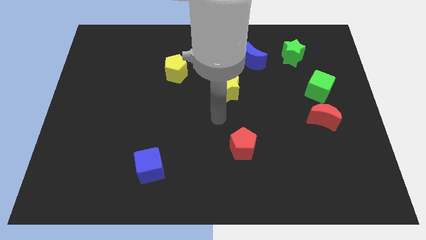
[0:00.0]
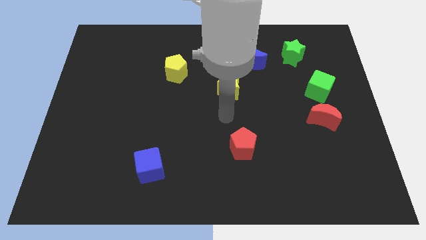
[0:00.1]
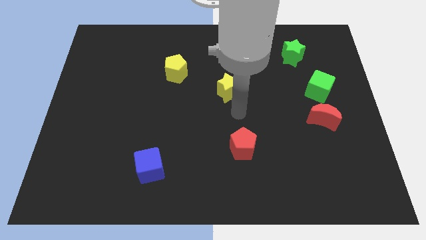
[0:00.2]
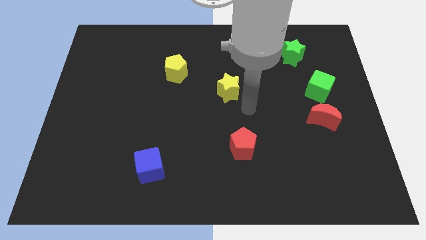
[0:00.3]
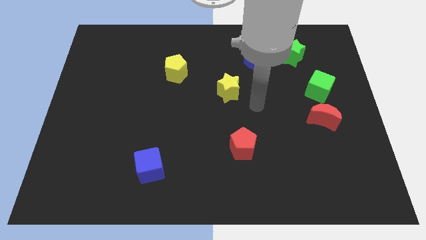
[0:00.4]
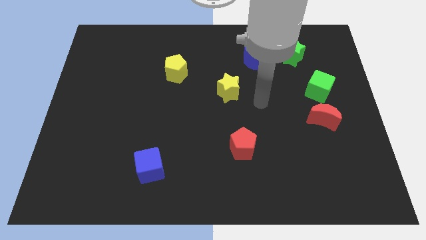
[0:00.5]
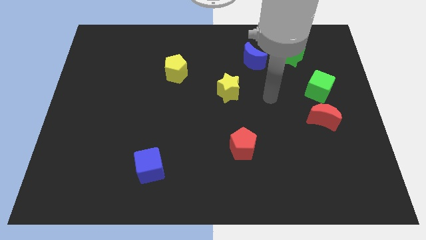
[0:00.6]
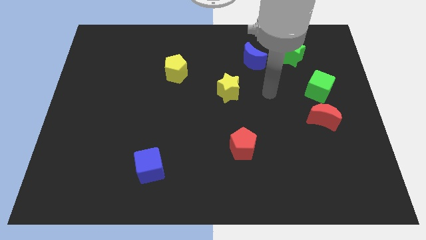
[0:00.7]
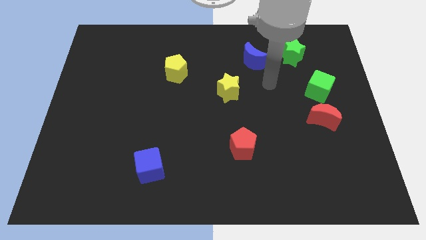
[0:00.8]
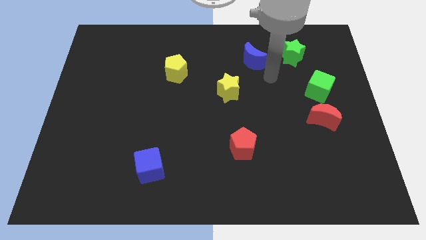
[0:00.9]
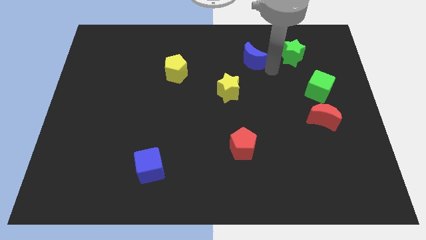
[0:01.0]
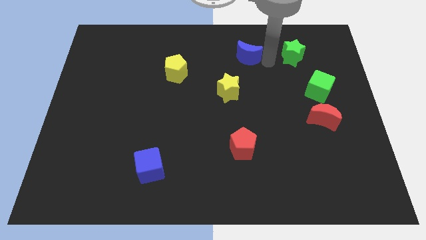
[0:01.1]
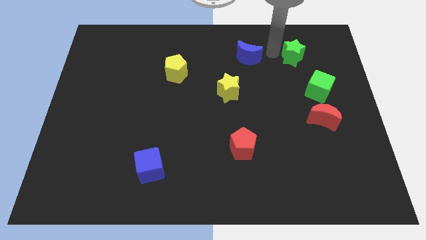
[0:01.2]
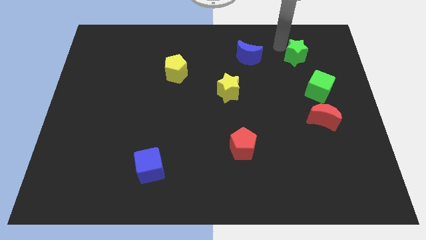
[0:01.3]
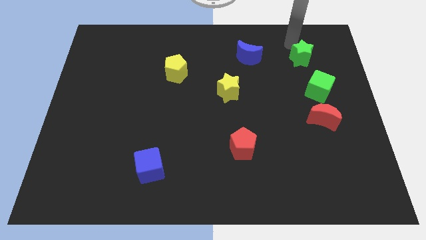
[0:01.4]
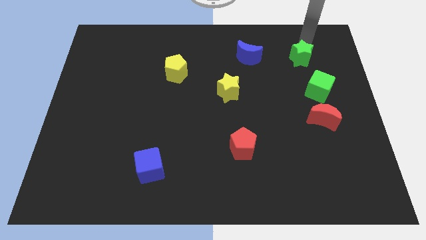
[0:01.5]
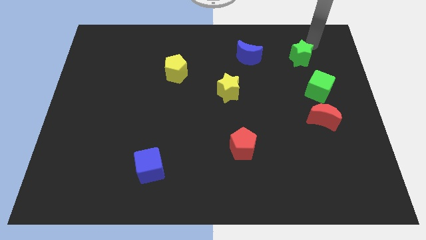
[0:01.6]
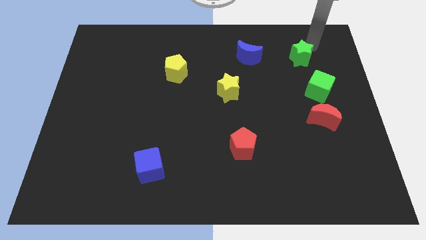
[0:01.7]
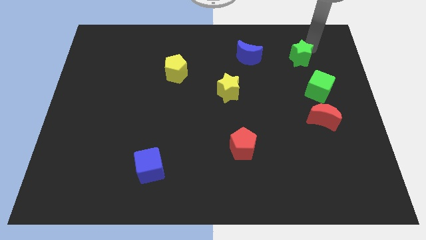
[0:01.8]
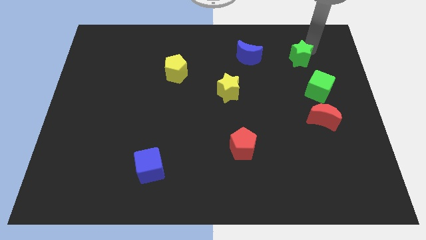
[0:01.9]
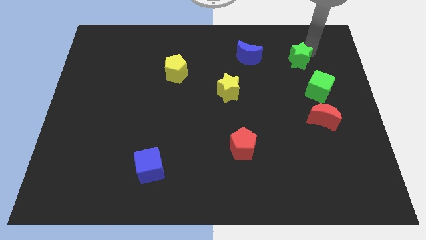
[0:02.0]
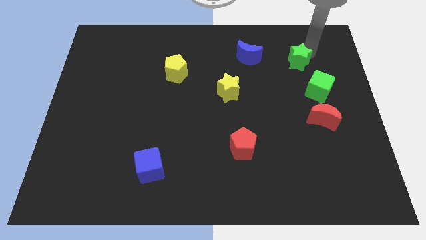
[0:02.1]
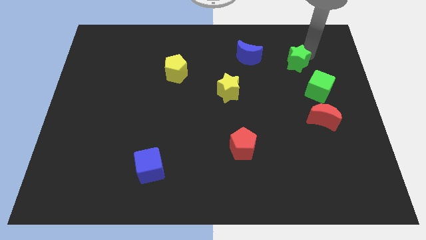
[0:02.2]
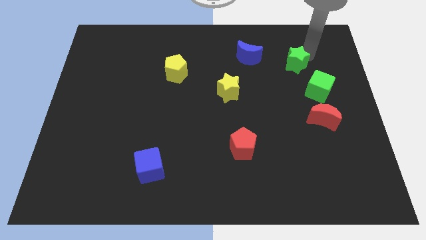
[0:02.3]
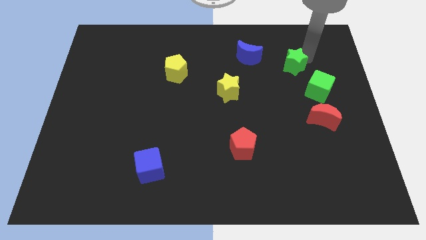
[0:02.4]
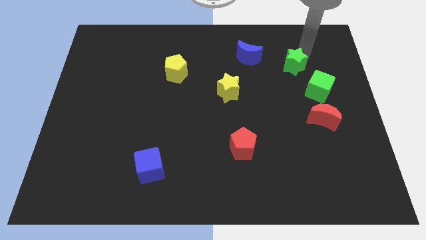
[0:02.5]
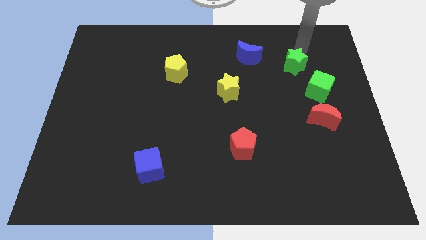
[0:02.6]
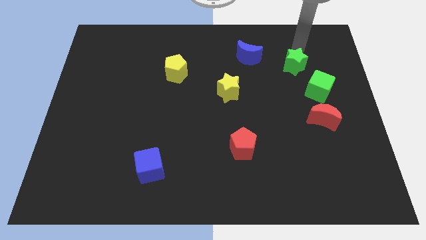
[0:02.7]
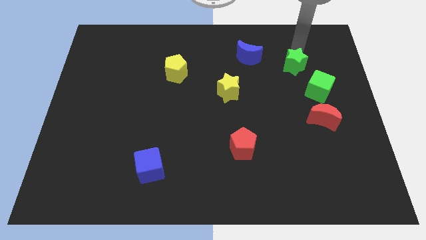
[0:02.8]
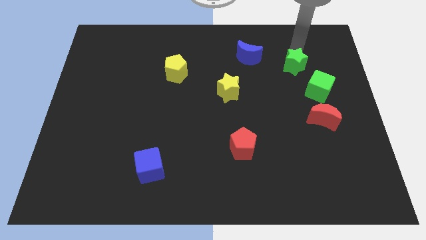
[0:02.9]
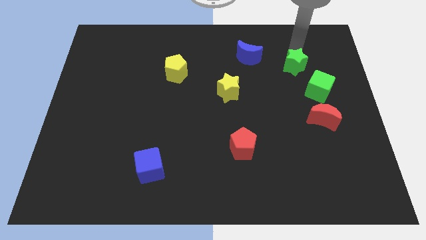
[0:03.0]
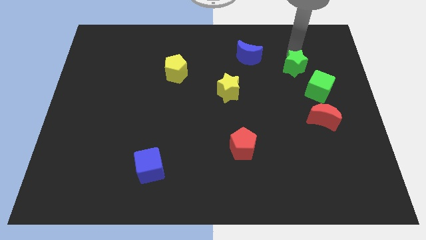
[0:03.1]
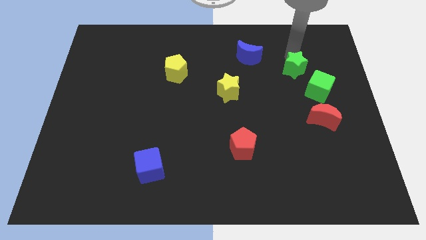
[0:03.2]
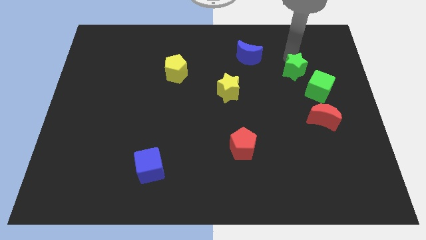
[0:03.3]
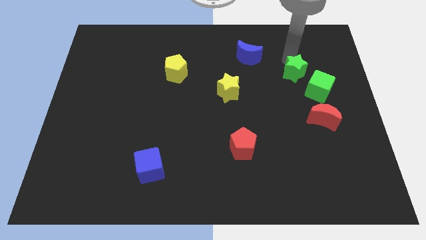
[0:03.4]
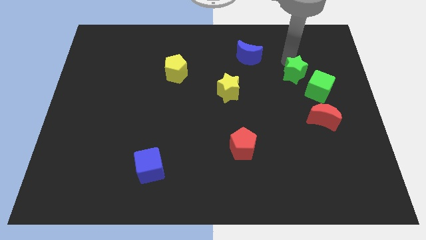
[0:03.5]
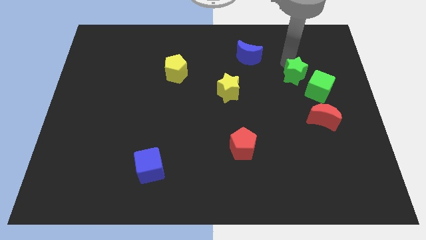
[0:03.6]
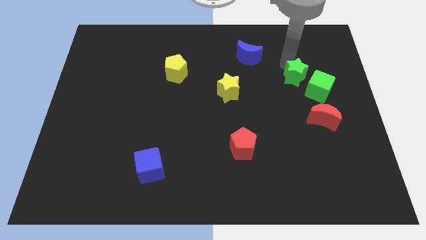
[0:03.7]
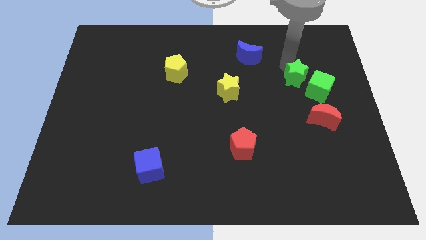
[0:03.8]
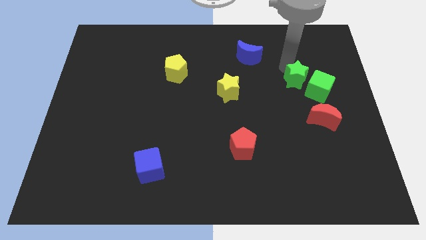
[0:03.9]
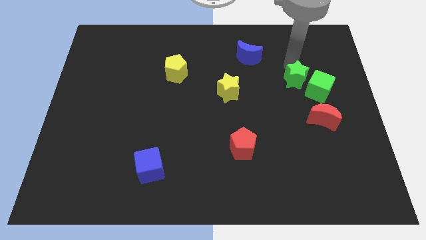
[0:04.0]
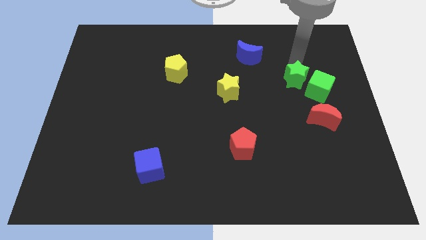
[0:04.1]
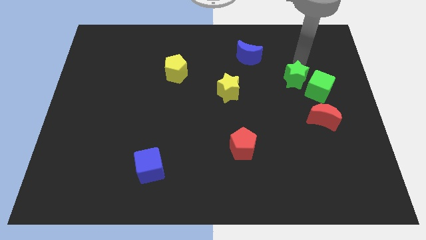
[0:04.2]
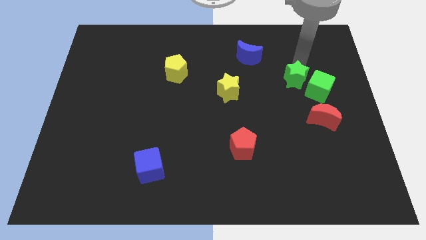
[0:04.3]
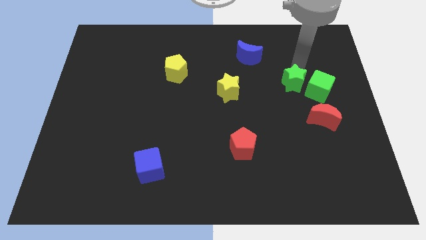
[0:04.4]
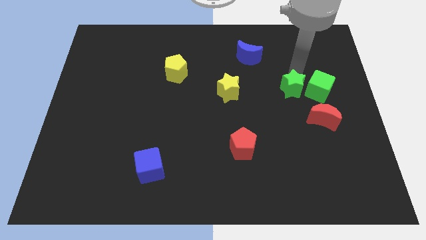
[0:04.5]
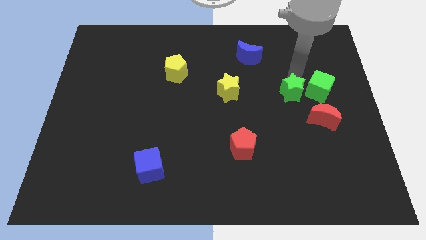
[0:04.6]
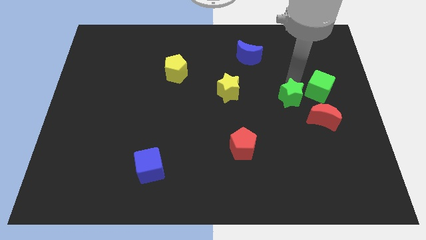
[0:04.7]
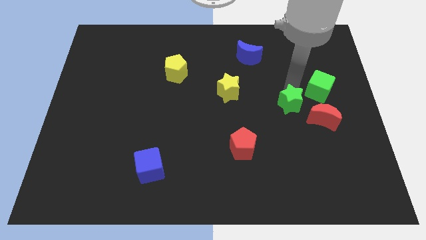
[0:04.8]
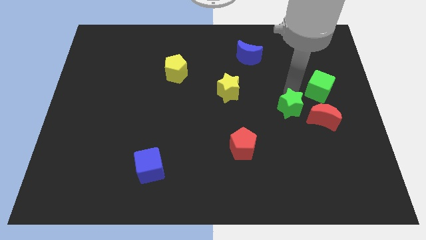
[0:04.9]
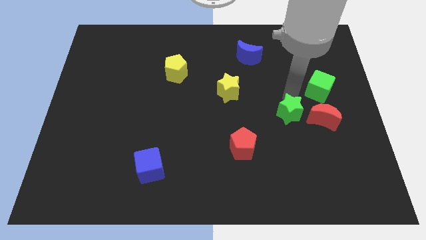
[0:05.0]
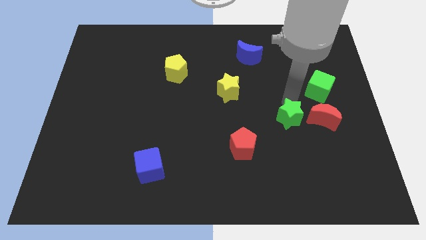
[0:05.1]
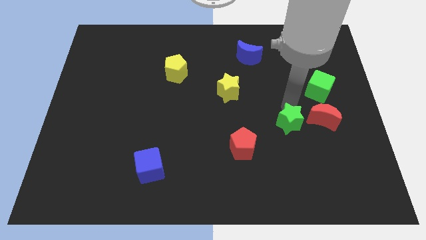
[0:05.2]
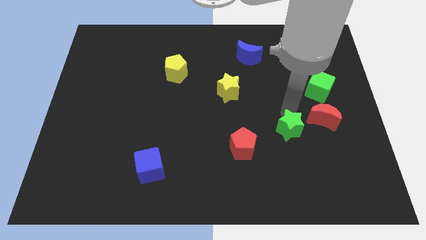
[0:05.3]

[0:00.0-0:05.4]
move the green star right of the red pentagon

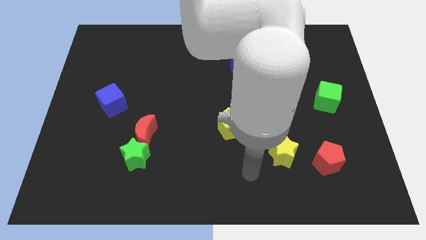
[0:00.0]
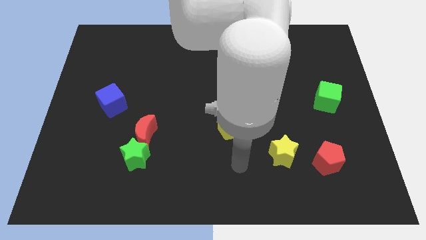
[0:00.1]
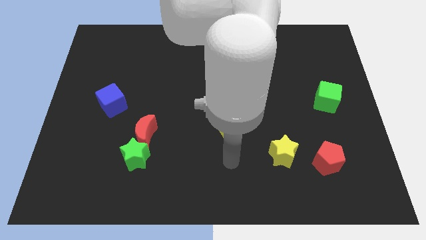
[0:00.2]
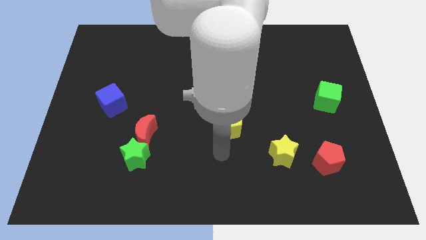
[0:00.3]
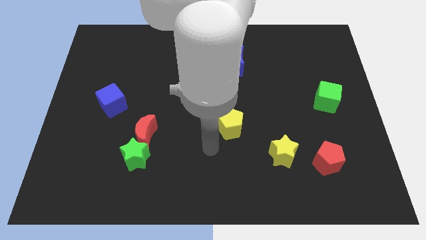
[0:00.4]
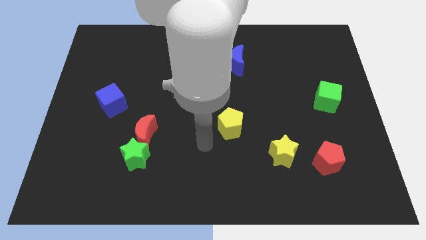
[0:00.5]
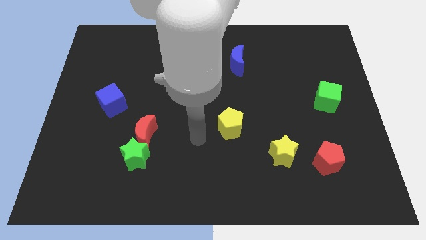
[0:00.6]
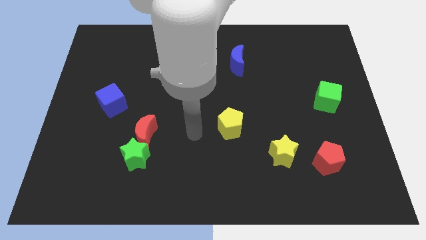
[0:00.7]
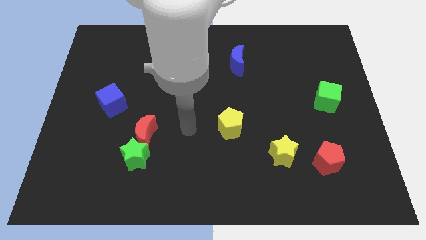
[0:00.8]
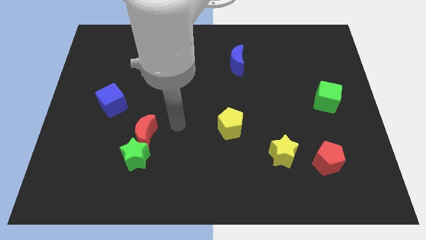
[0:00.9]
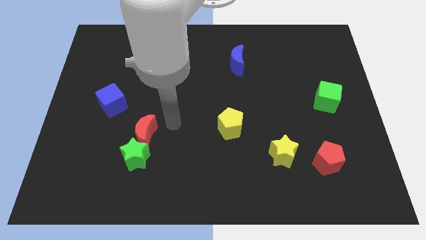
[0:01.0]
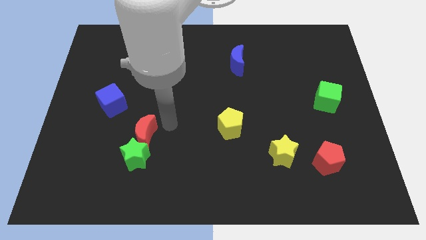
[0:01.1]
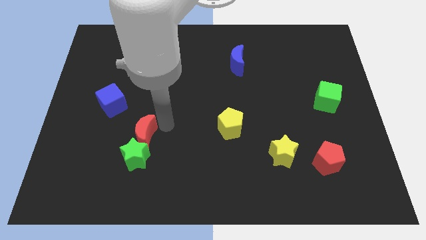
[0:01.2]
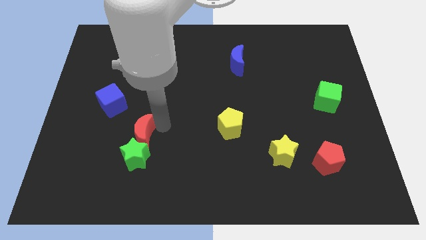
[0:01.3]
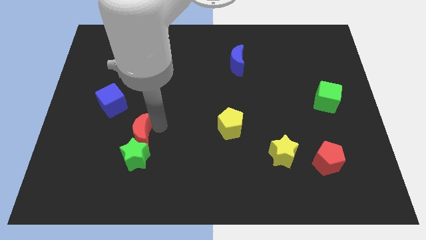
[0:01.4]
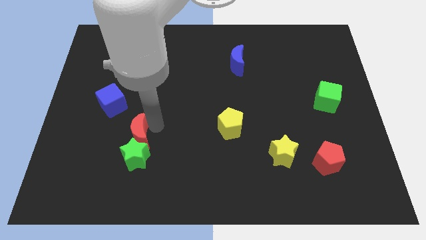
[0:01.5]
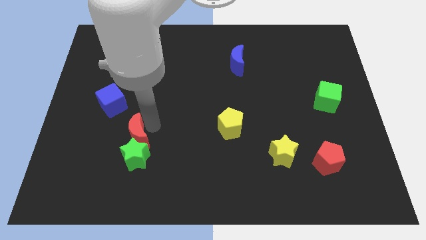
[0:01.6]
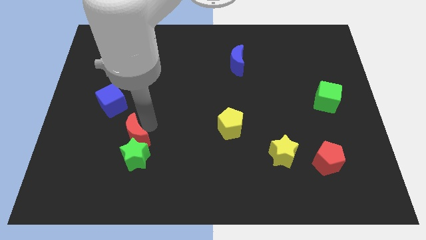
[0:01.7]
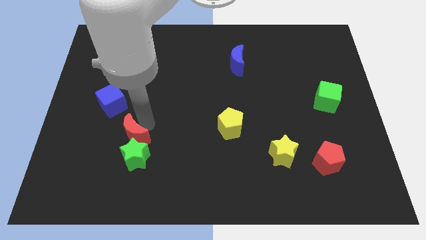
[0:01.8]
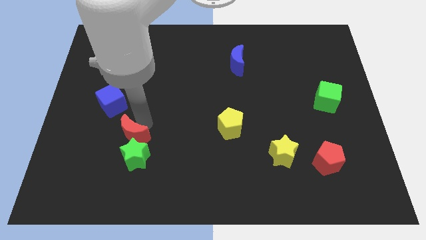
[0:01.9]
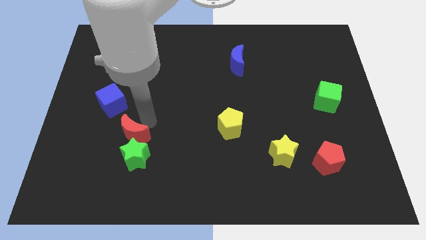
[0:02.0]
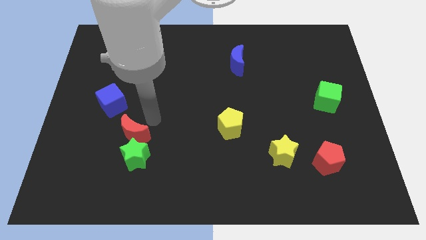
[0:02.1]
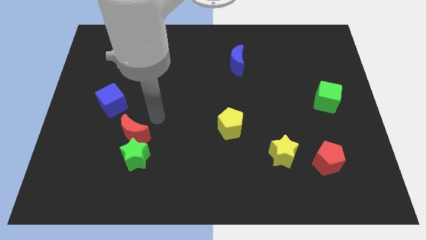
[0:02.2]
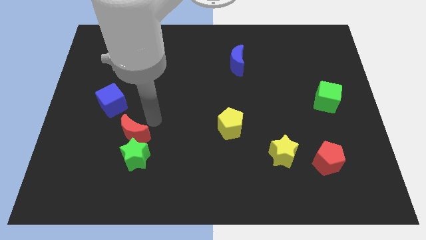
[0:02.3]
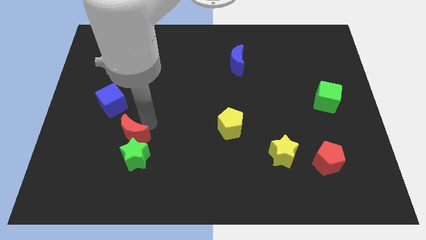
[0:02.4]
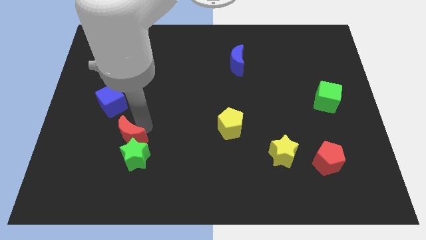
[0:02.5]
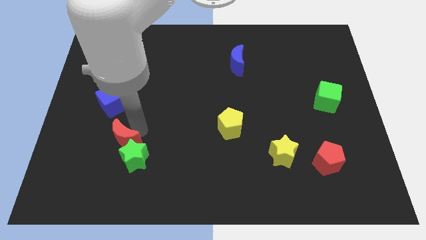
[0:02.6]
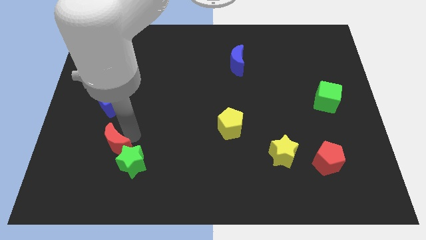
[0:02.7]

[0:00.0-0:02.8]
push the red moon just left of the green star
